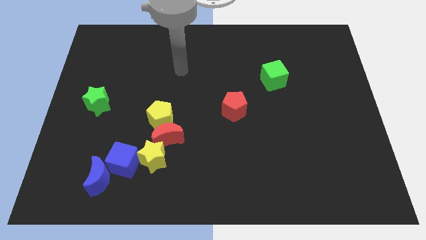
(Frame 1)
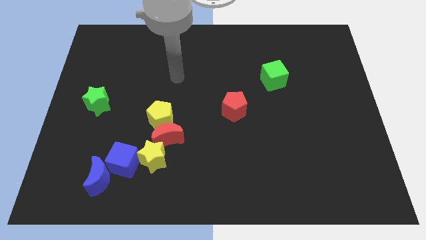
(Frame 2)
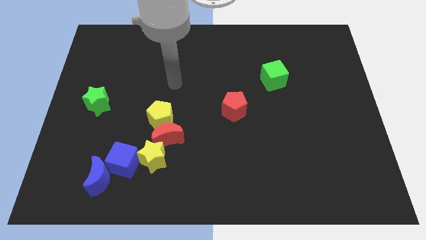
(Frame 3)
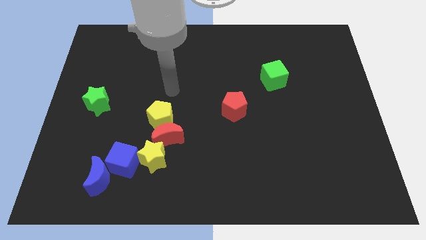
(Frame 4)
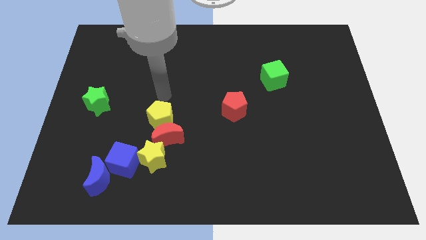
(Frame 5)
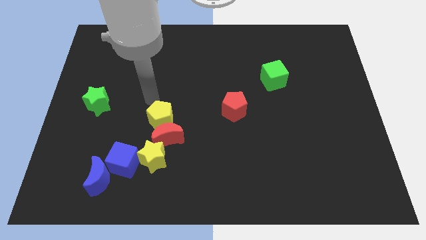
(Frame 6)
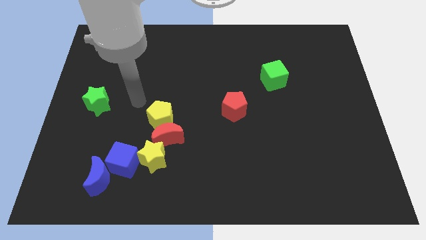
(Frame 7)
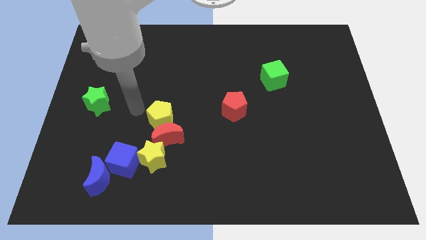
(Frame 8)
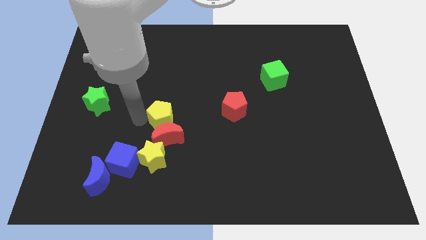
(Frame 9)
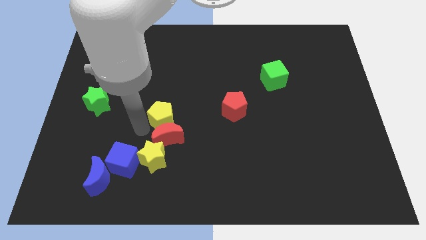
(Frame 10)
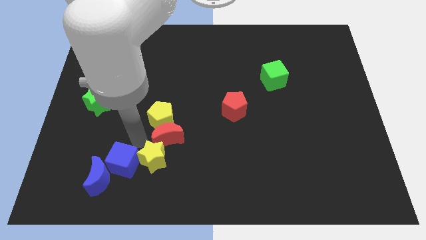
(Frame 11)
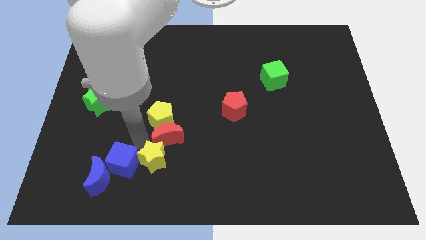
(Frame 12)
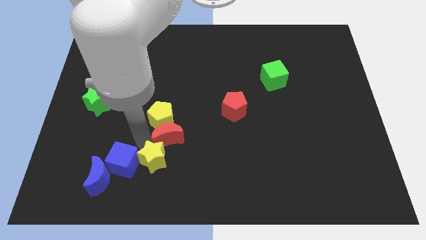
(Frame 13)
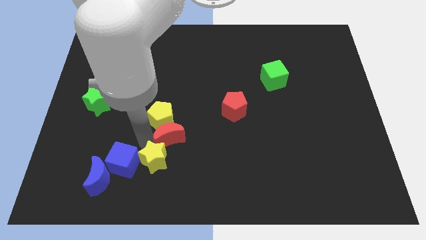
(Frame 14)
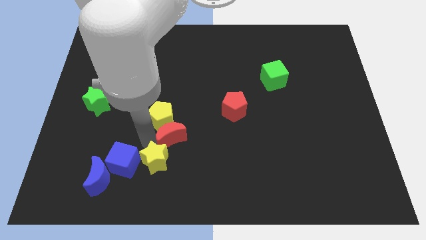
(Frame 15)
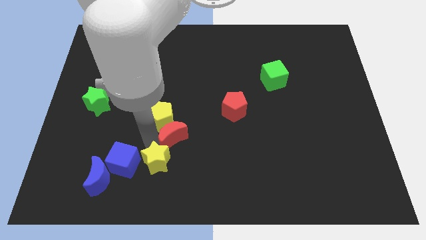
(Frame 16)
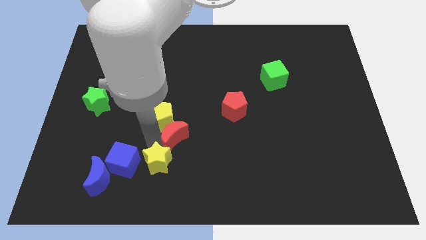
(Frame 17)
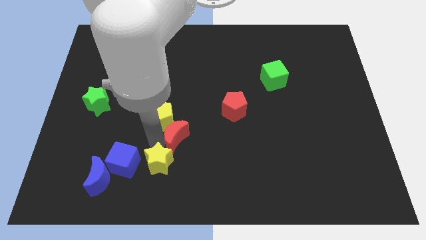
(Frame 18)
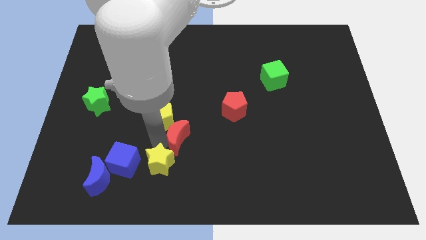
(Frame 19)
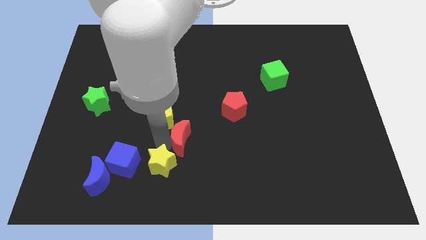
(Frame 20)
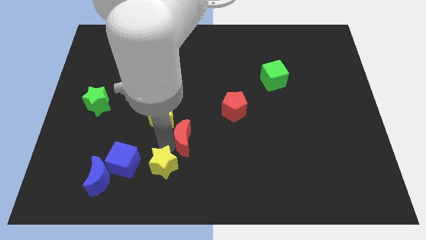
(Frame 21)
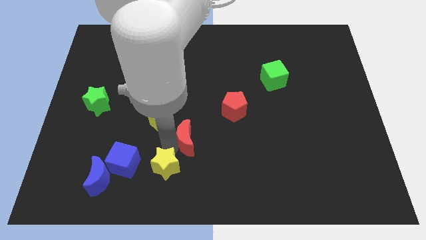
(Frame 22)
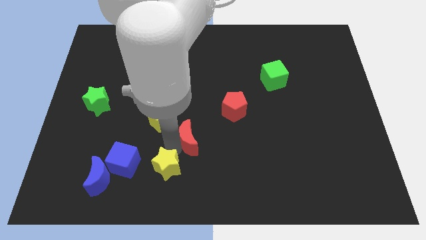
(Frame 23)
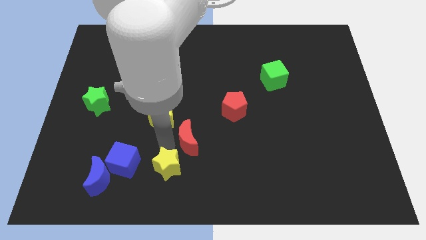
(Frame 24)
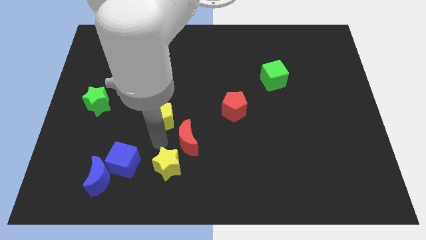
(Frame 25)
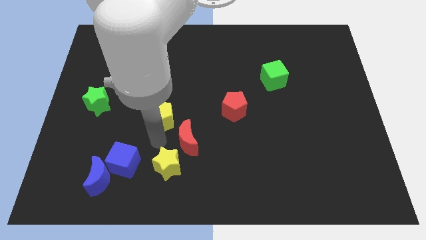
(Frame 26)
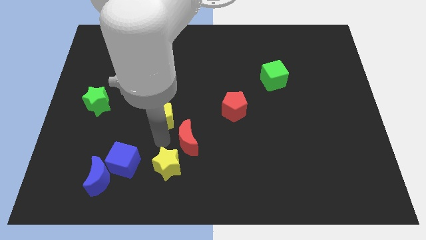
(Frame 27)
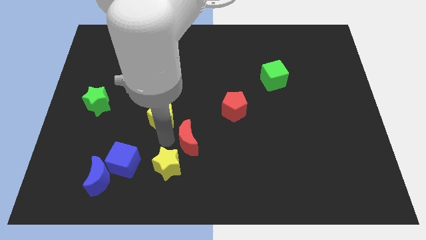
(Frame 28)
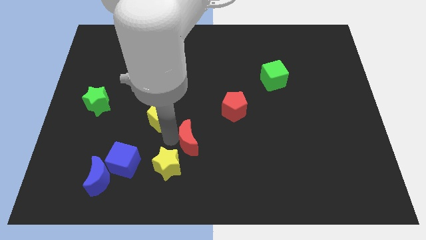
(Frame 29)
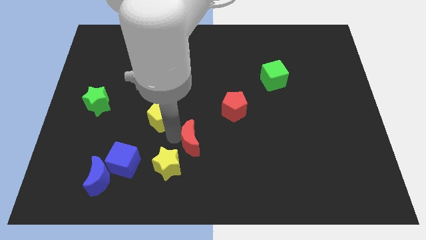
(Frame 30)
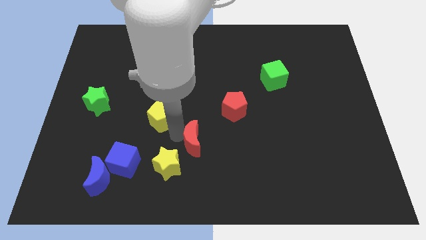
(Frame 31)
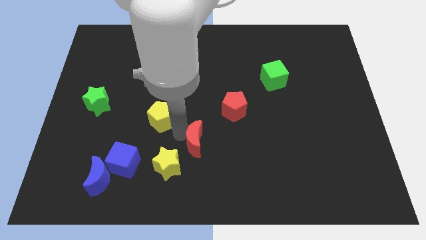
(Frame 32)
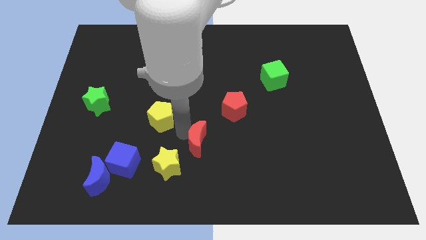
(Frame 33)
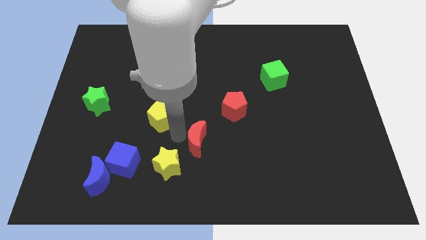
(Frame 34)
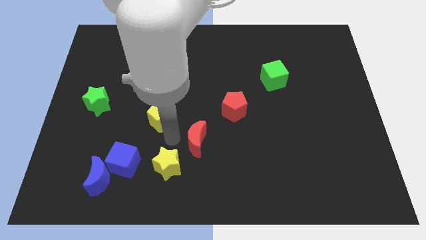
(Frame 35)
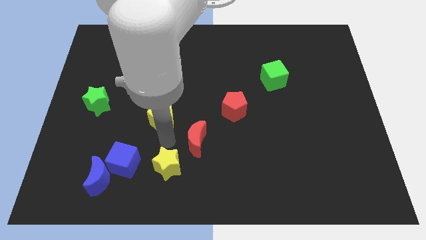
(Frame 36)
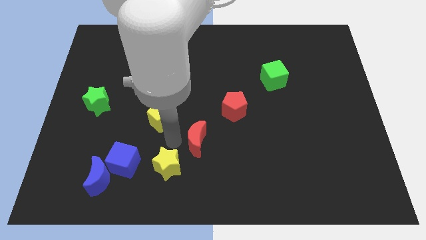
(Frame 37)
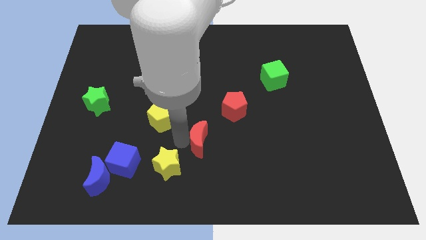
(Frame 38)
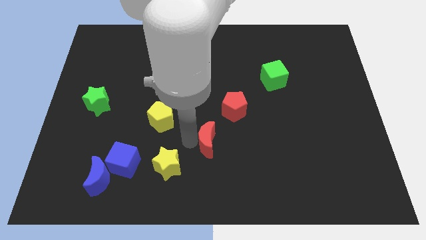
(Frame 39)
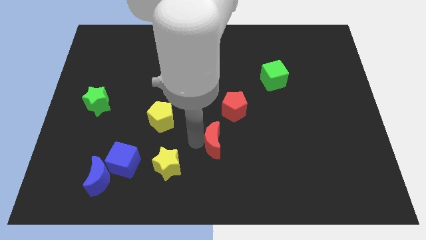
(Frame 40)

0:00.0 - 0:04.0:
move the red moon away from the yellow pentagon and yellow star

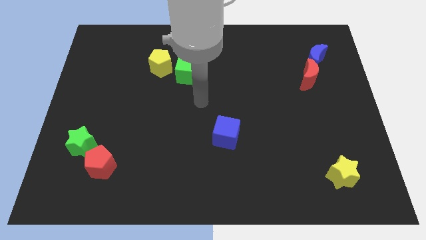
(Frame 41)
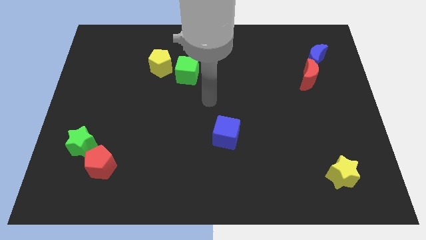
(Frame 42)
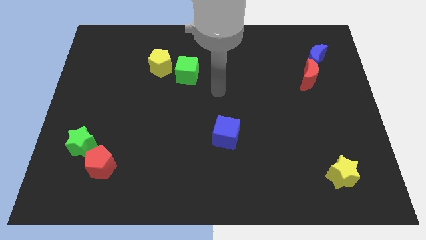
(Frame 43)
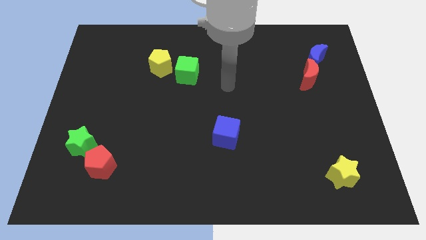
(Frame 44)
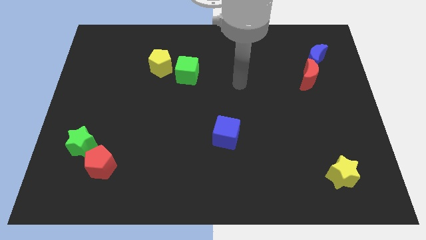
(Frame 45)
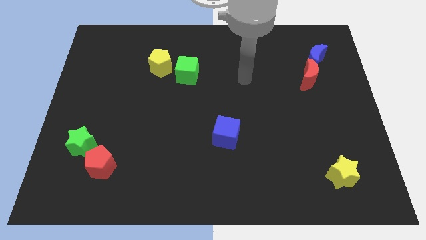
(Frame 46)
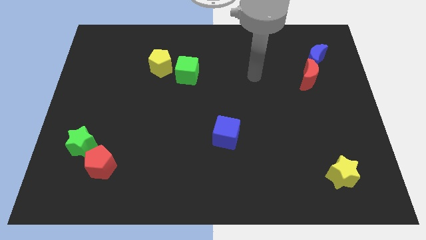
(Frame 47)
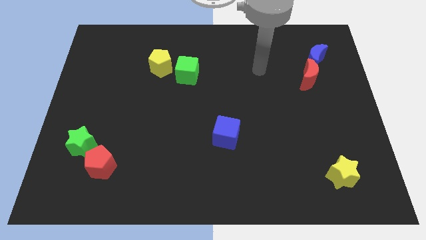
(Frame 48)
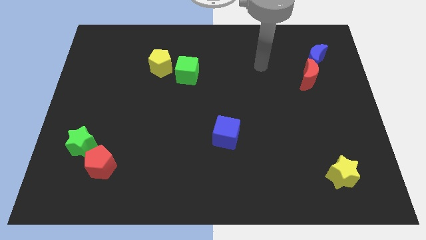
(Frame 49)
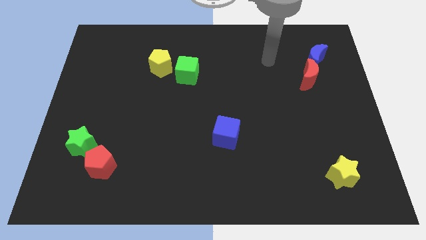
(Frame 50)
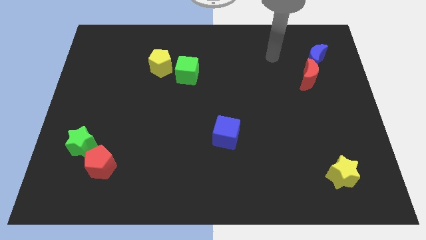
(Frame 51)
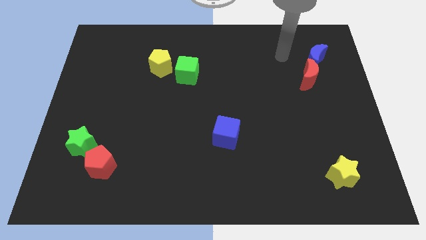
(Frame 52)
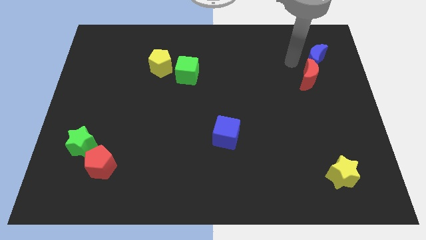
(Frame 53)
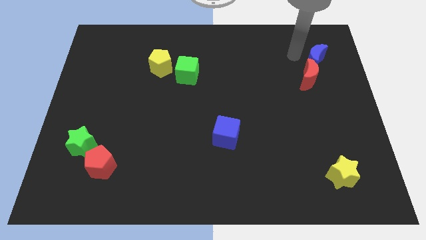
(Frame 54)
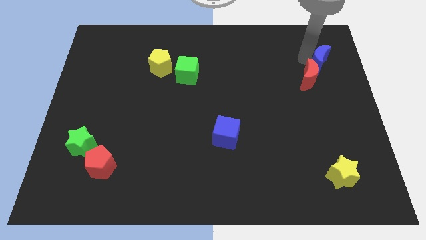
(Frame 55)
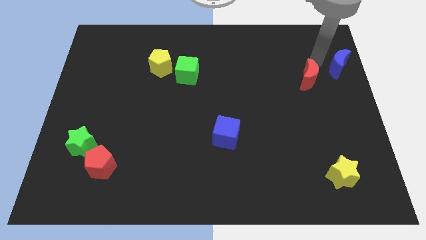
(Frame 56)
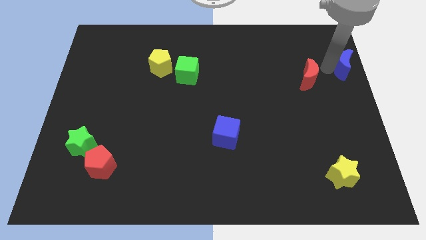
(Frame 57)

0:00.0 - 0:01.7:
separate the red moon from the blue moon

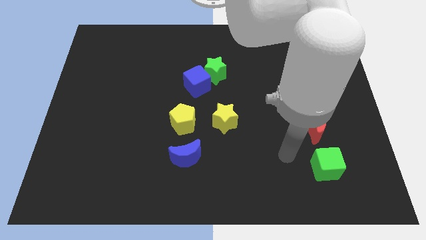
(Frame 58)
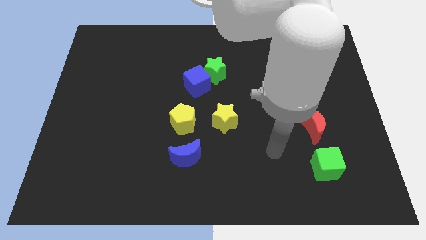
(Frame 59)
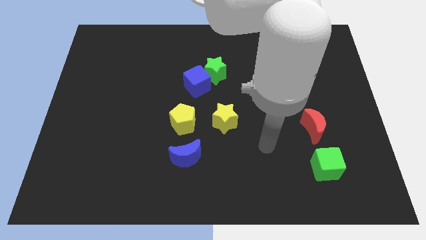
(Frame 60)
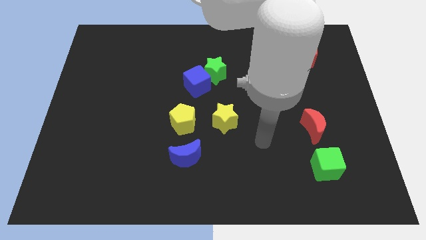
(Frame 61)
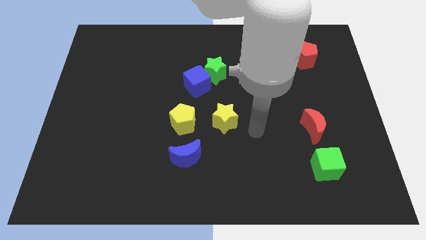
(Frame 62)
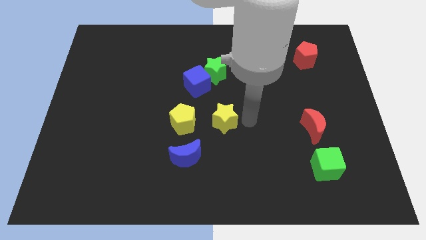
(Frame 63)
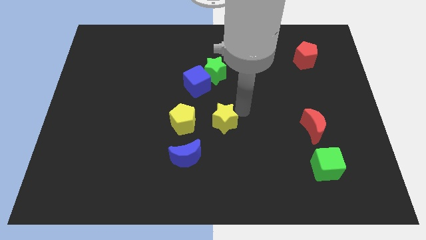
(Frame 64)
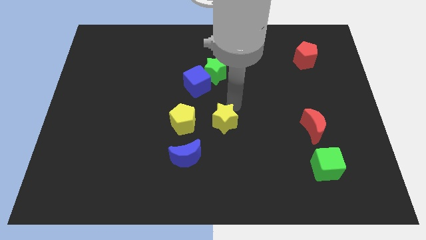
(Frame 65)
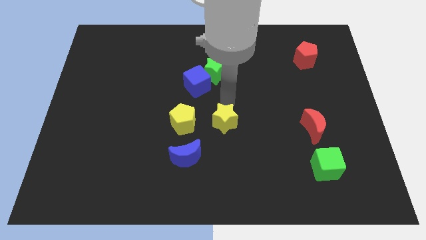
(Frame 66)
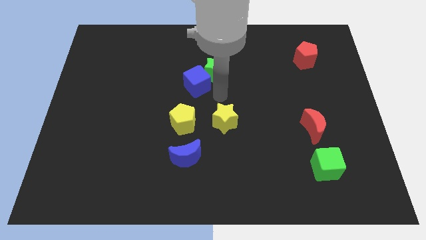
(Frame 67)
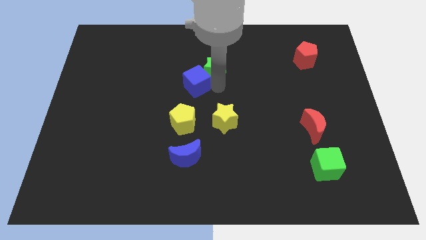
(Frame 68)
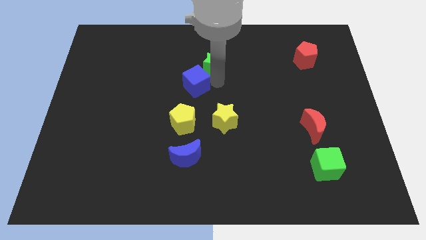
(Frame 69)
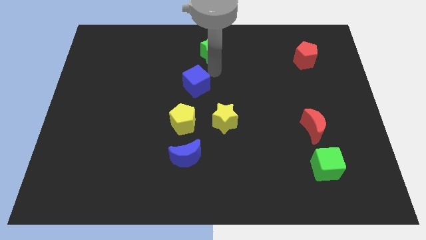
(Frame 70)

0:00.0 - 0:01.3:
pull the blue cube apart from the green star

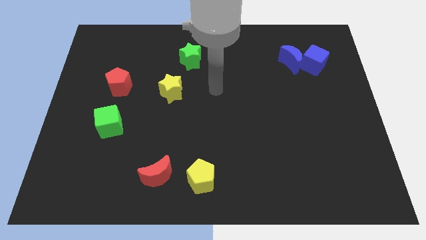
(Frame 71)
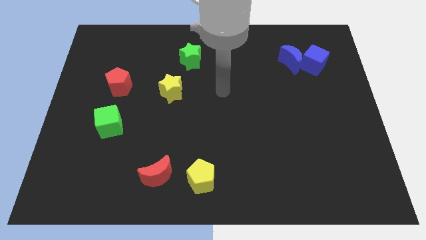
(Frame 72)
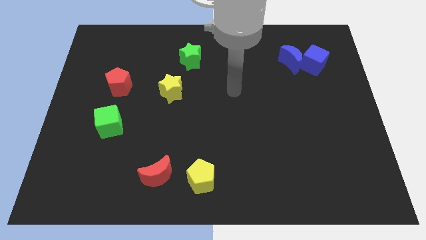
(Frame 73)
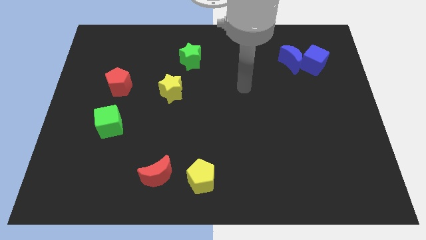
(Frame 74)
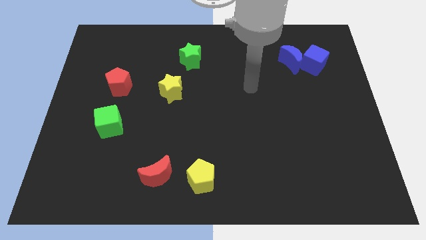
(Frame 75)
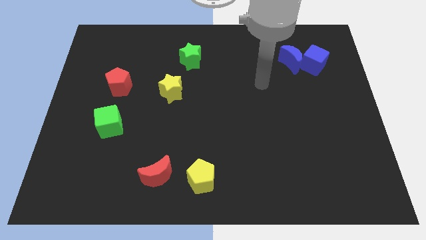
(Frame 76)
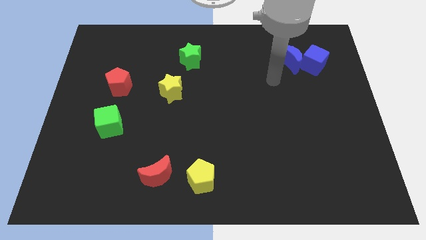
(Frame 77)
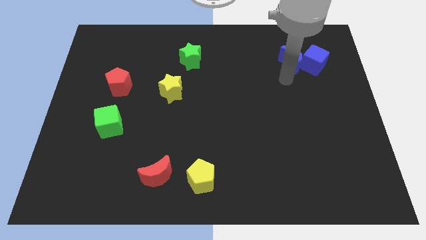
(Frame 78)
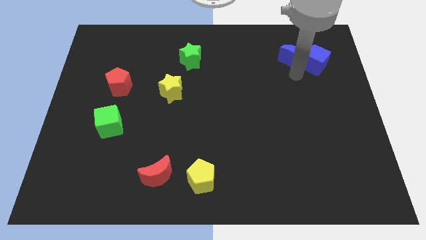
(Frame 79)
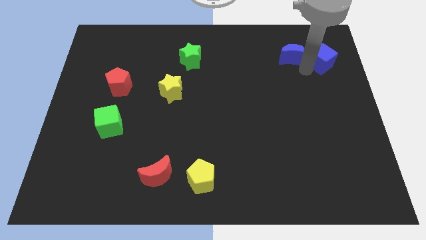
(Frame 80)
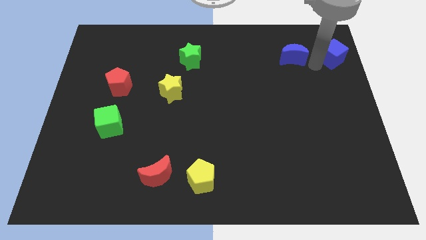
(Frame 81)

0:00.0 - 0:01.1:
pull the blue moon apart from the blue cube

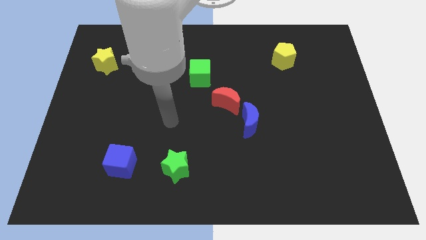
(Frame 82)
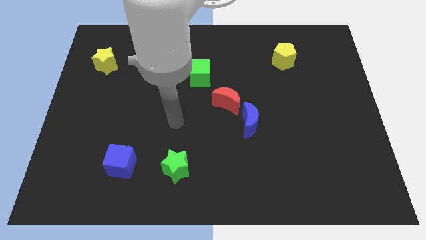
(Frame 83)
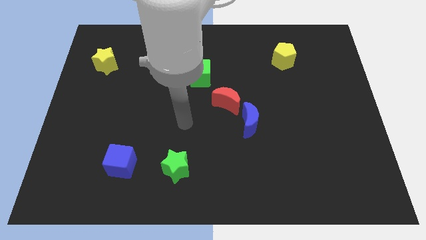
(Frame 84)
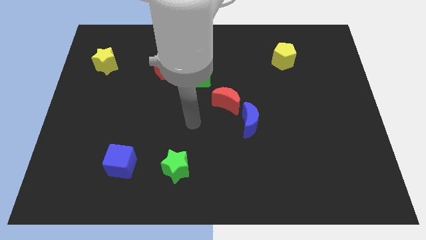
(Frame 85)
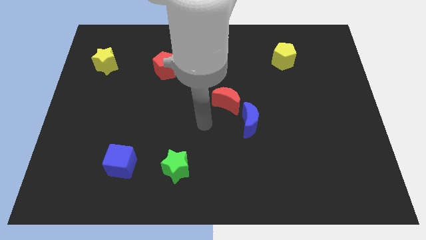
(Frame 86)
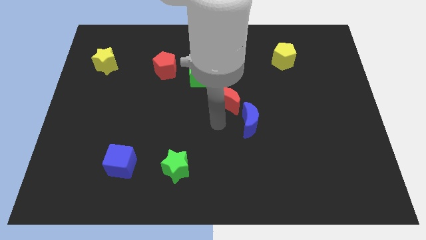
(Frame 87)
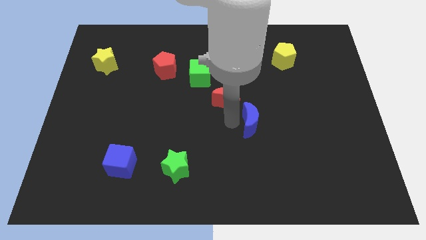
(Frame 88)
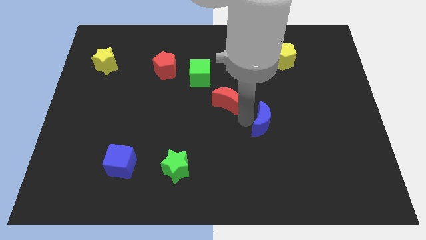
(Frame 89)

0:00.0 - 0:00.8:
move the red moon away from the blue moon

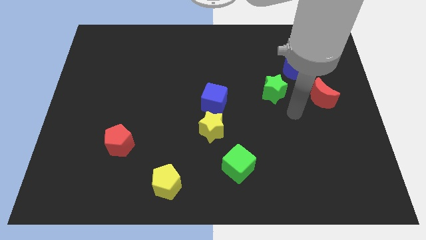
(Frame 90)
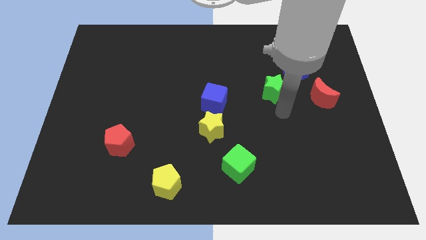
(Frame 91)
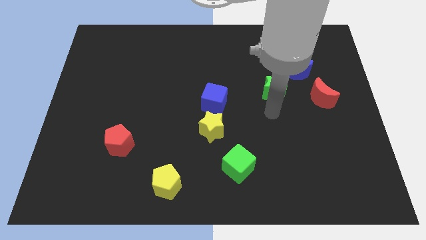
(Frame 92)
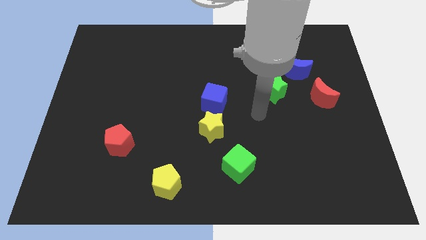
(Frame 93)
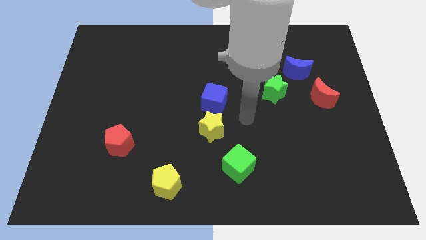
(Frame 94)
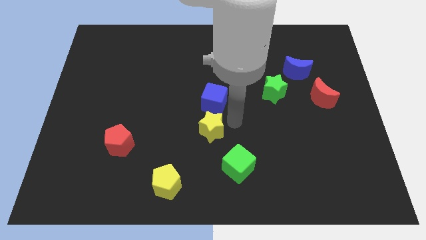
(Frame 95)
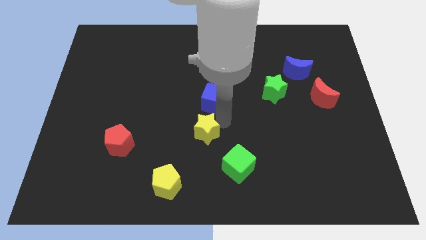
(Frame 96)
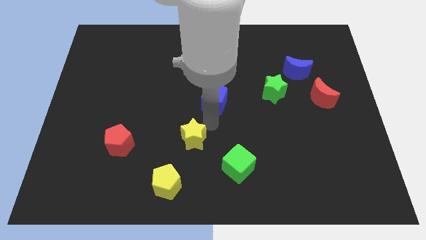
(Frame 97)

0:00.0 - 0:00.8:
pull the blue cube apart from the yellow star
